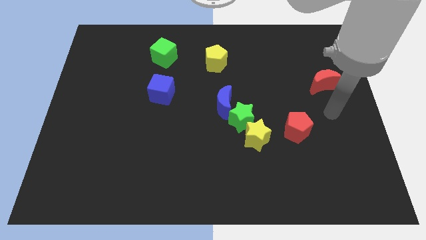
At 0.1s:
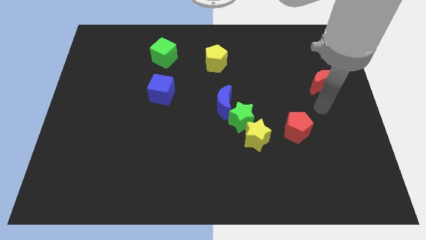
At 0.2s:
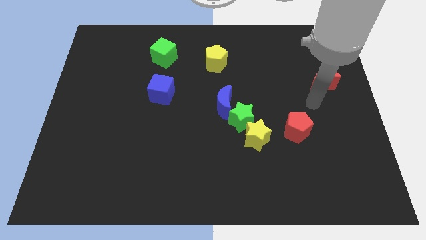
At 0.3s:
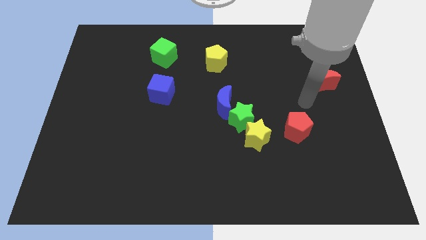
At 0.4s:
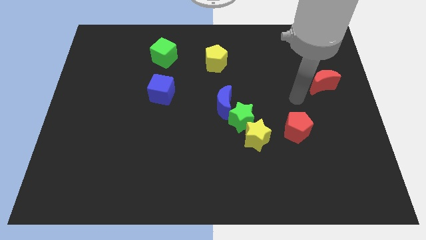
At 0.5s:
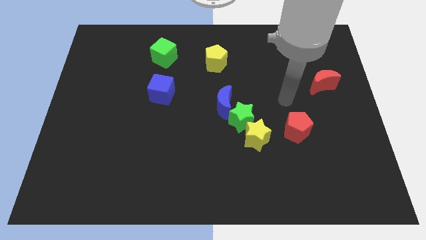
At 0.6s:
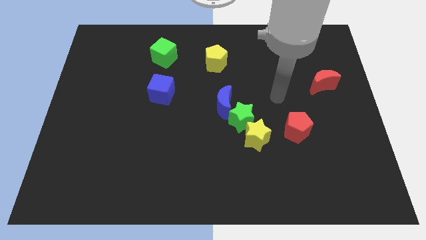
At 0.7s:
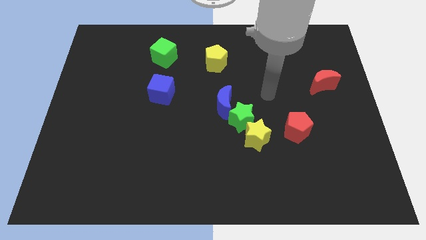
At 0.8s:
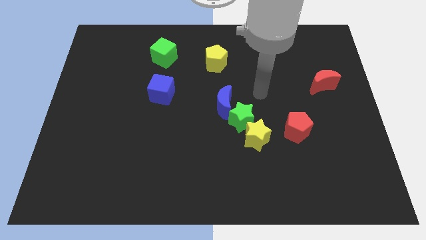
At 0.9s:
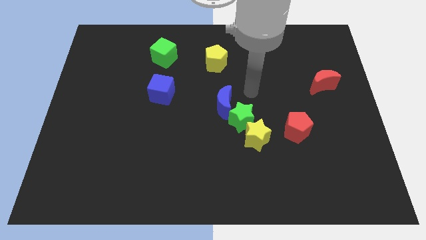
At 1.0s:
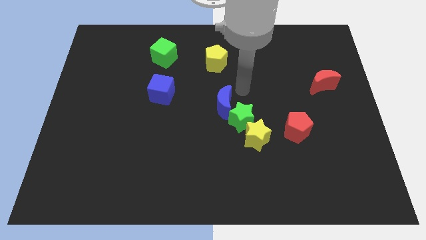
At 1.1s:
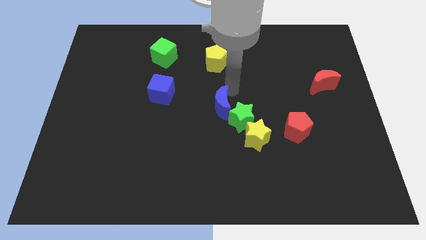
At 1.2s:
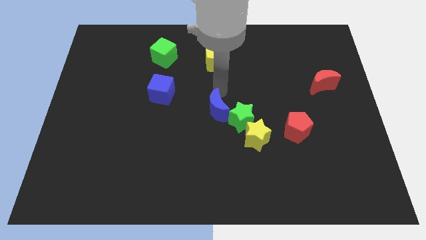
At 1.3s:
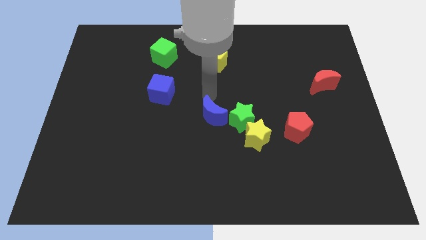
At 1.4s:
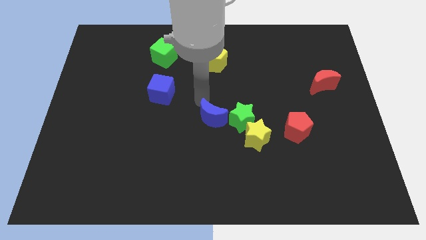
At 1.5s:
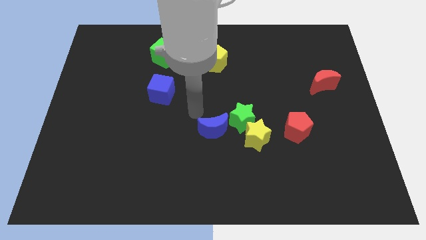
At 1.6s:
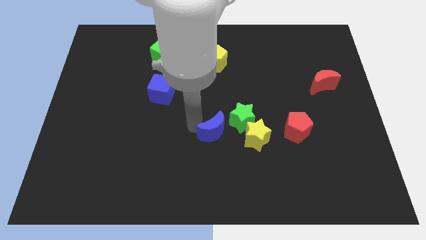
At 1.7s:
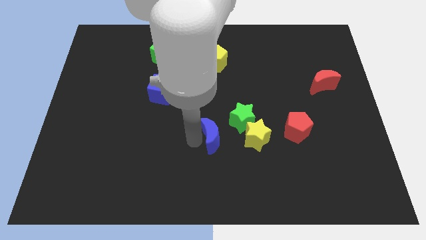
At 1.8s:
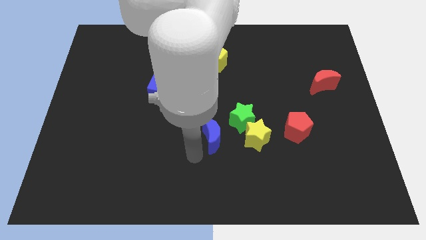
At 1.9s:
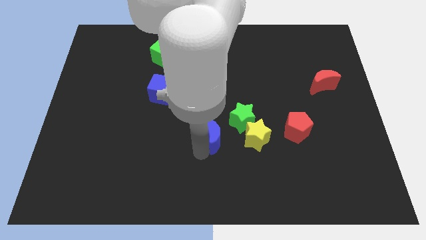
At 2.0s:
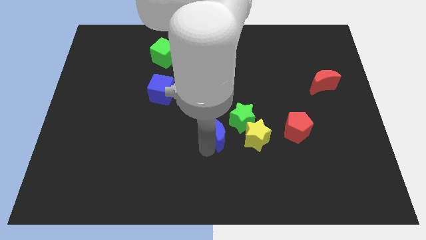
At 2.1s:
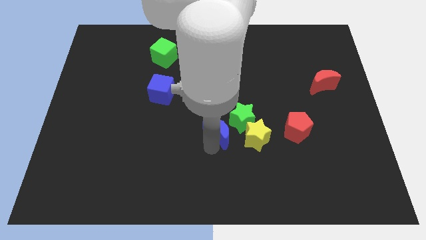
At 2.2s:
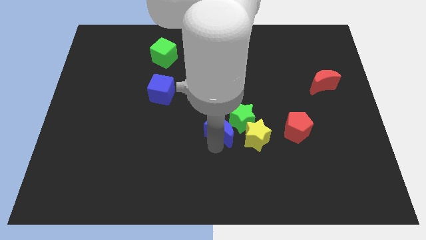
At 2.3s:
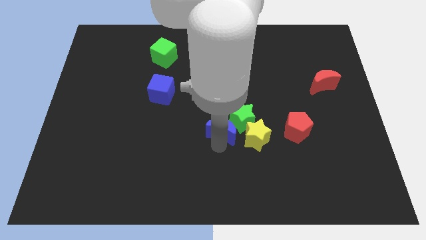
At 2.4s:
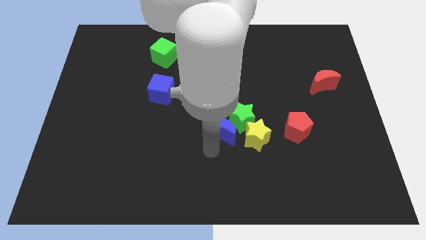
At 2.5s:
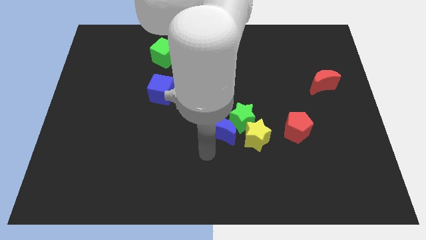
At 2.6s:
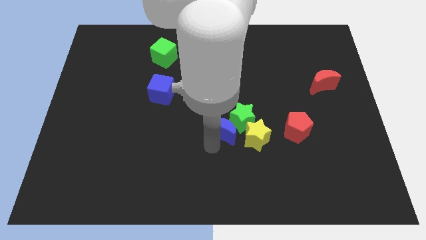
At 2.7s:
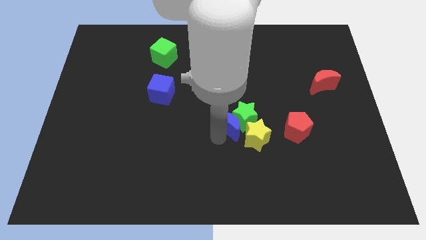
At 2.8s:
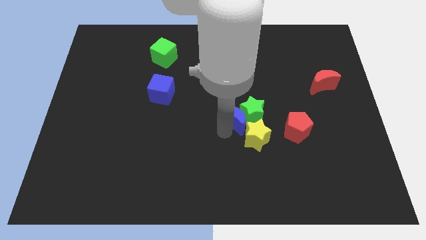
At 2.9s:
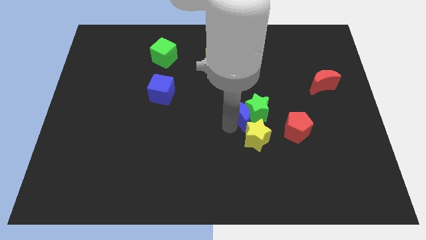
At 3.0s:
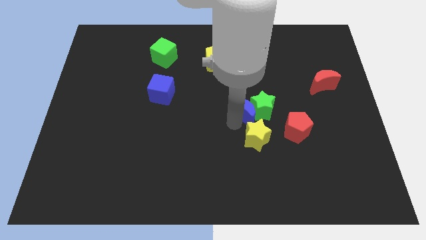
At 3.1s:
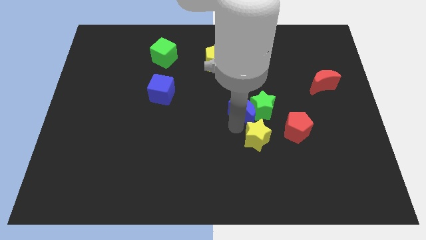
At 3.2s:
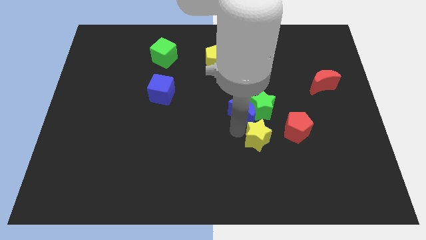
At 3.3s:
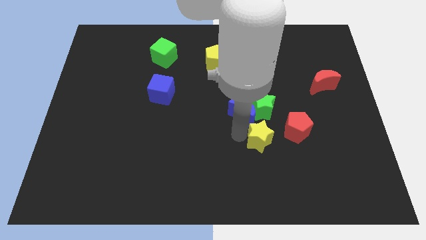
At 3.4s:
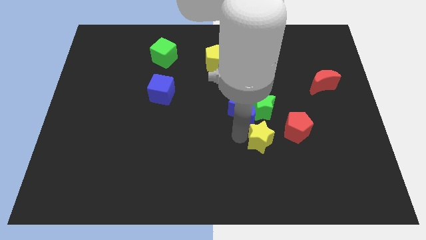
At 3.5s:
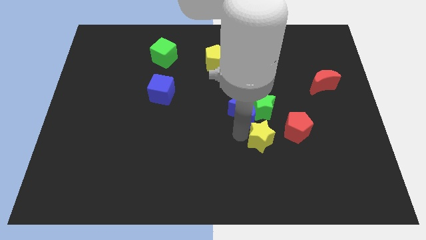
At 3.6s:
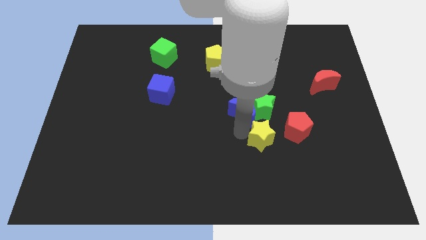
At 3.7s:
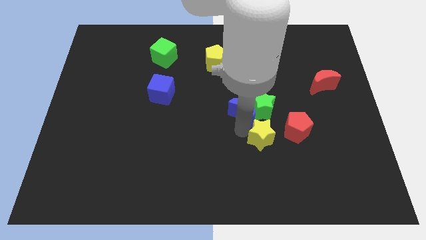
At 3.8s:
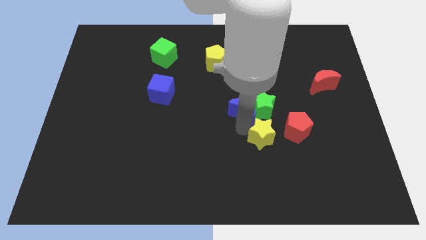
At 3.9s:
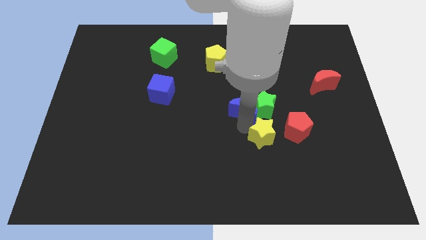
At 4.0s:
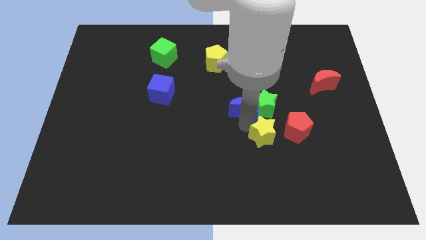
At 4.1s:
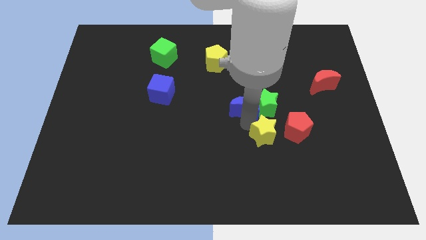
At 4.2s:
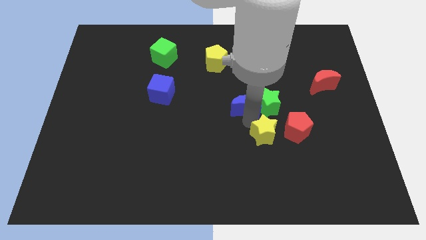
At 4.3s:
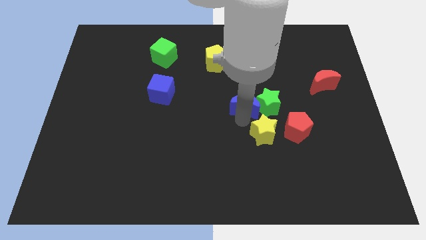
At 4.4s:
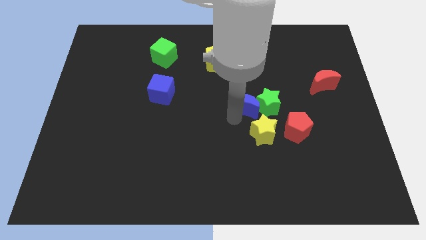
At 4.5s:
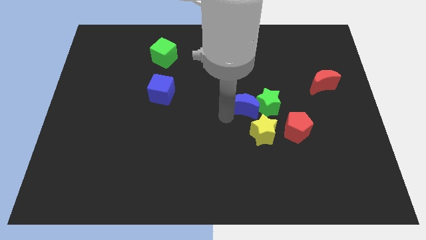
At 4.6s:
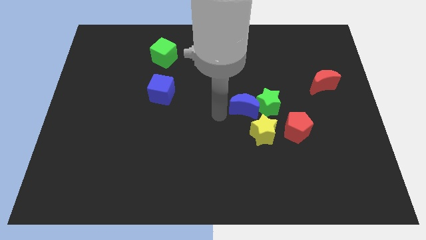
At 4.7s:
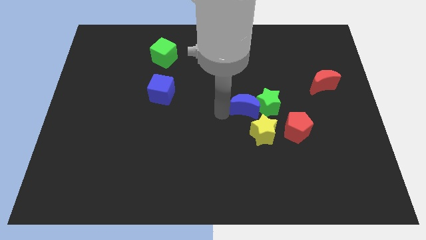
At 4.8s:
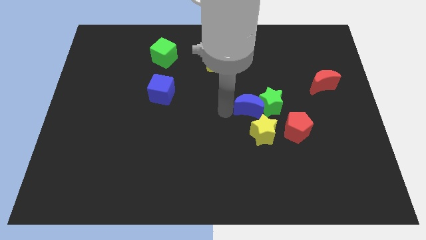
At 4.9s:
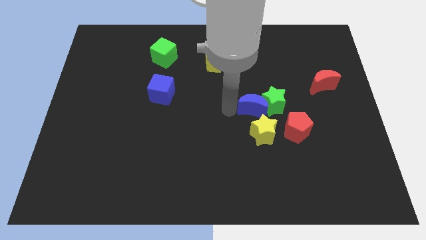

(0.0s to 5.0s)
move the blue moon a bit to the right

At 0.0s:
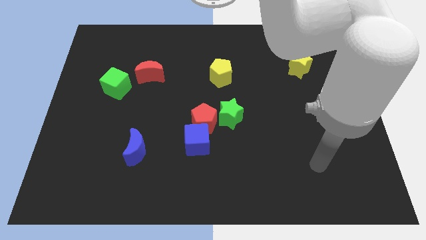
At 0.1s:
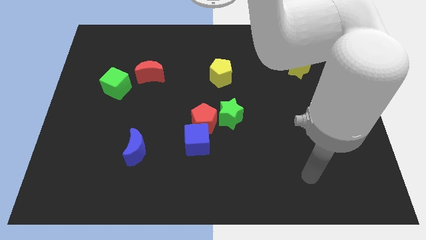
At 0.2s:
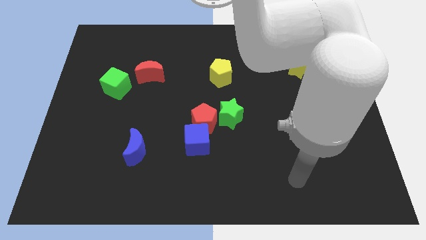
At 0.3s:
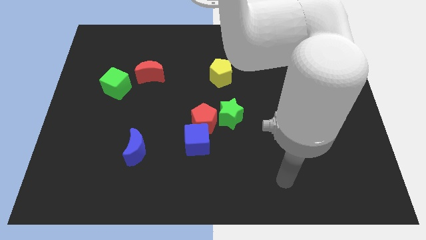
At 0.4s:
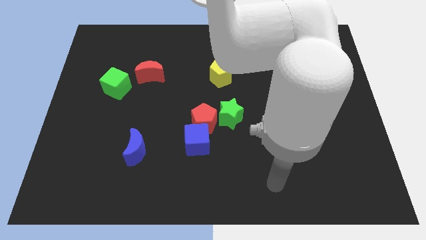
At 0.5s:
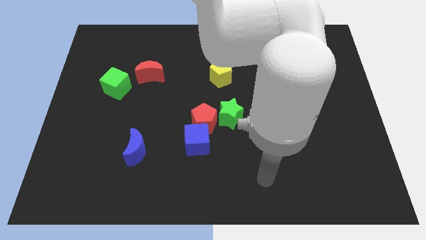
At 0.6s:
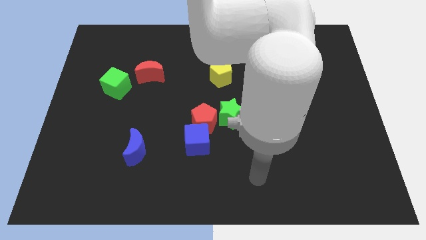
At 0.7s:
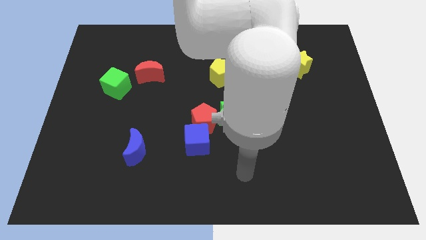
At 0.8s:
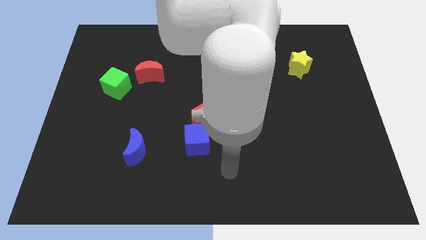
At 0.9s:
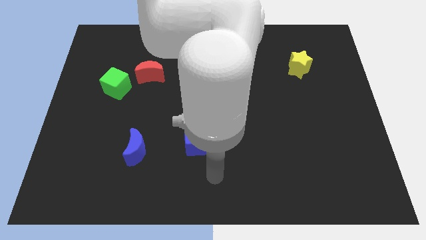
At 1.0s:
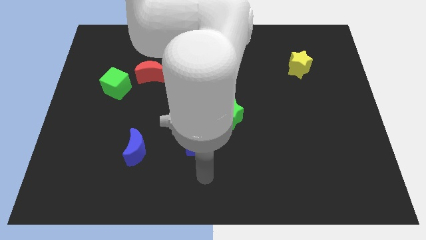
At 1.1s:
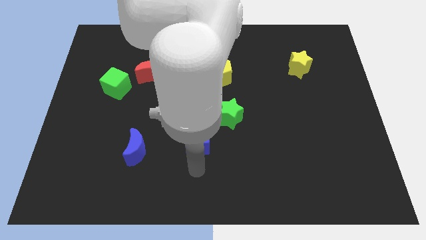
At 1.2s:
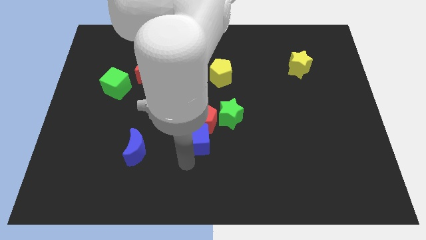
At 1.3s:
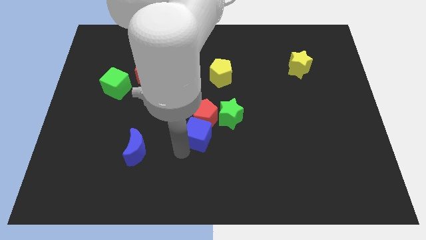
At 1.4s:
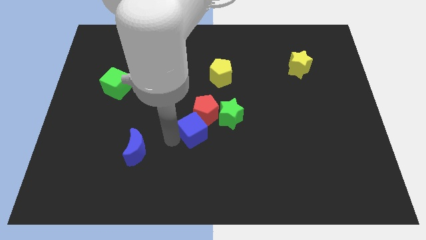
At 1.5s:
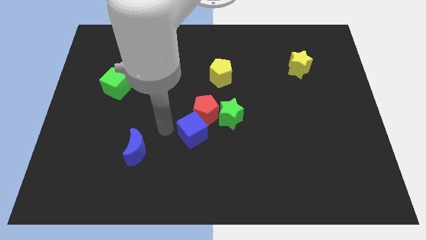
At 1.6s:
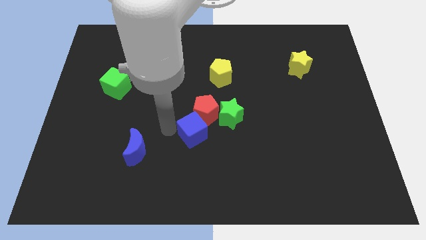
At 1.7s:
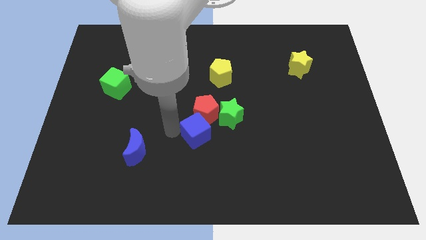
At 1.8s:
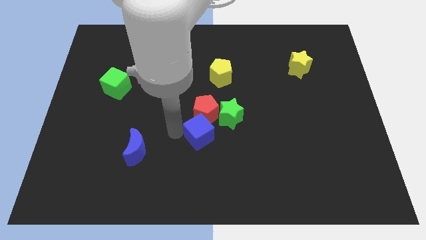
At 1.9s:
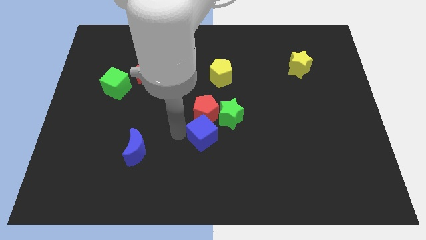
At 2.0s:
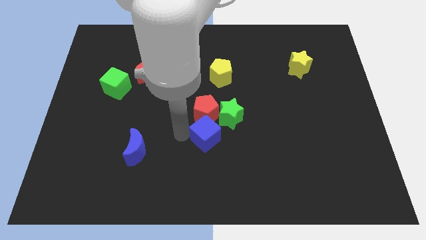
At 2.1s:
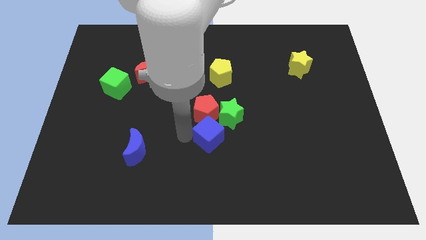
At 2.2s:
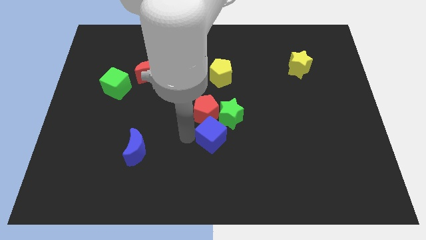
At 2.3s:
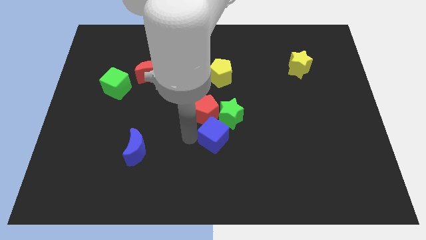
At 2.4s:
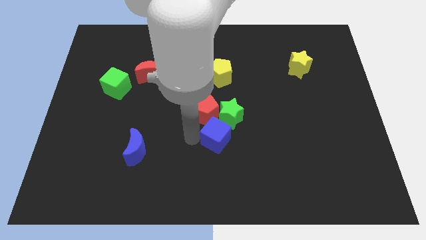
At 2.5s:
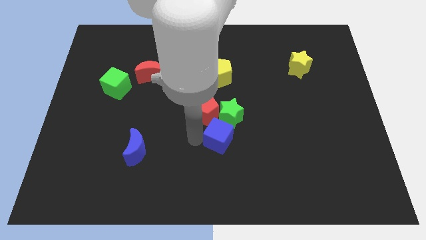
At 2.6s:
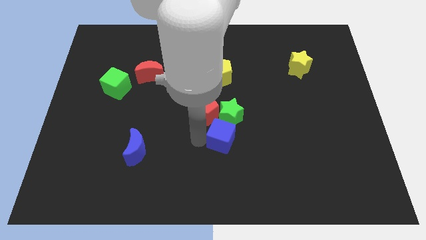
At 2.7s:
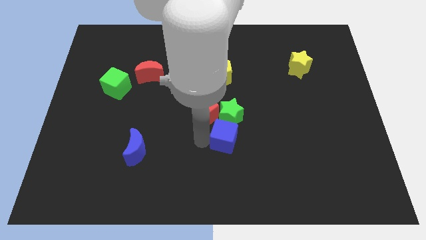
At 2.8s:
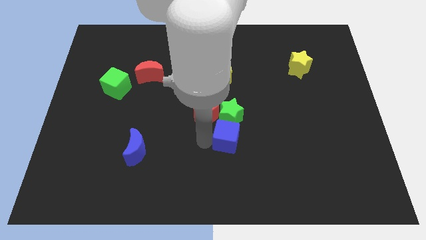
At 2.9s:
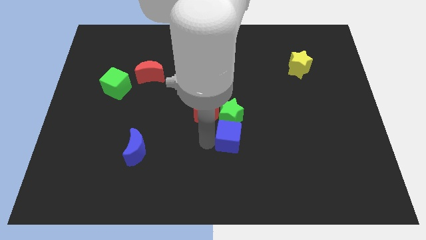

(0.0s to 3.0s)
slightly slide the blue cube to the right
